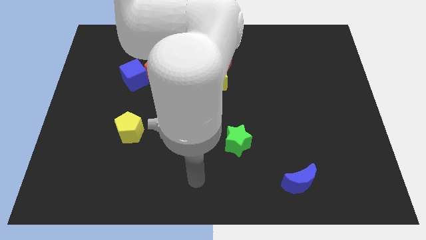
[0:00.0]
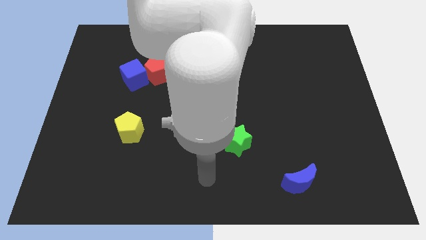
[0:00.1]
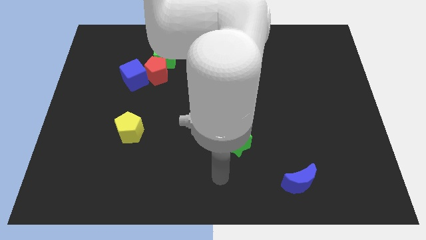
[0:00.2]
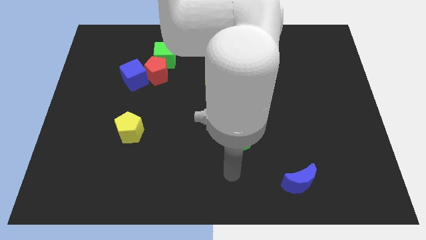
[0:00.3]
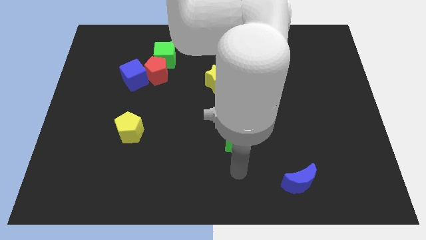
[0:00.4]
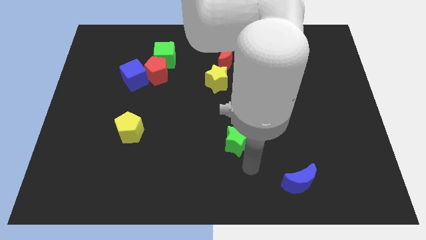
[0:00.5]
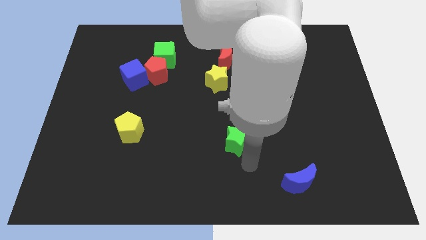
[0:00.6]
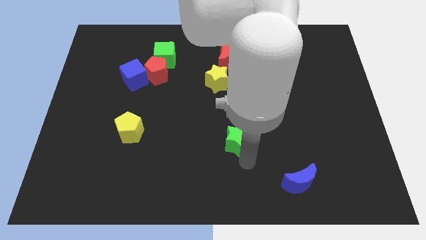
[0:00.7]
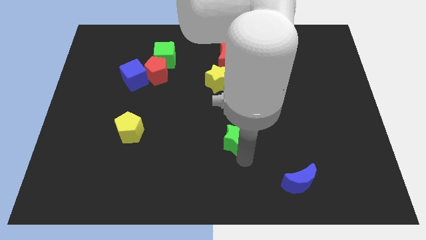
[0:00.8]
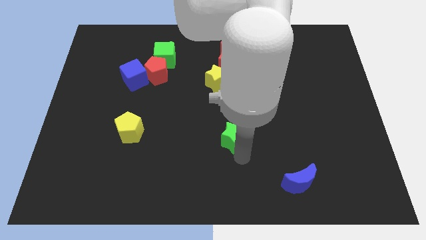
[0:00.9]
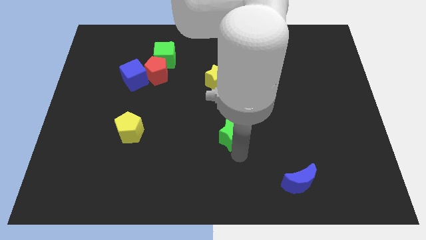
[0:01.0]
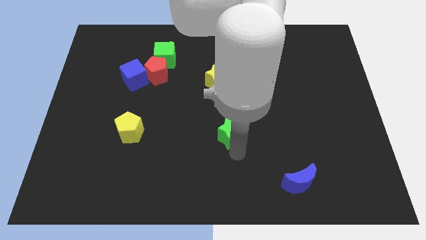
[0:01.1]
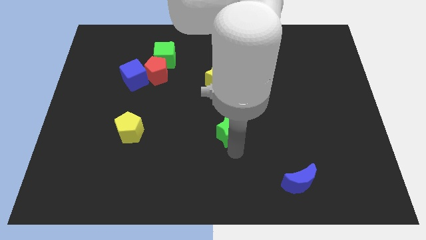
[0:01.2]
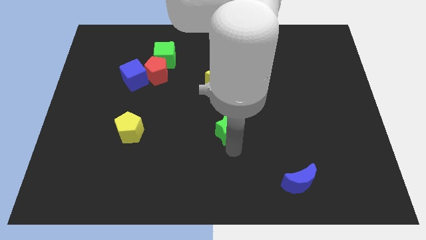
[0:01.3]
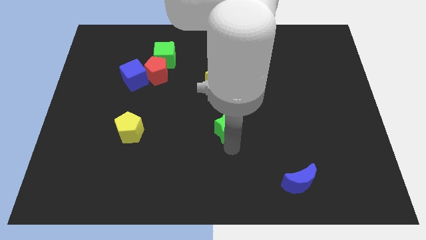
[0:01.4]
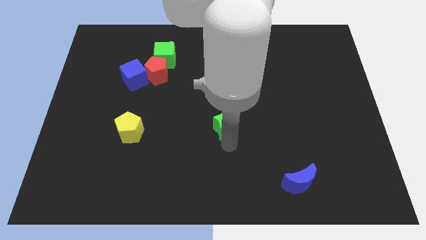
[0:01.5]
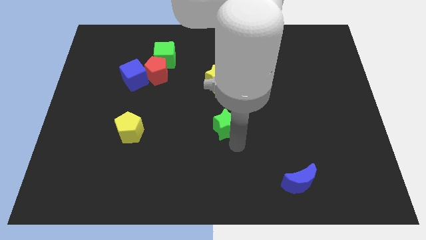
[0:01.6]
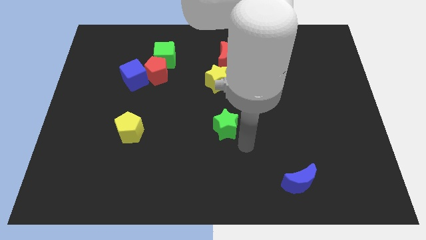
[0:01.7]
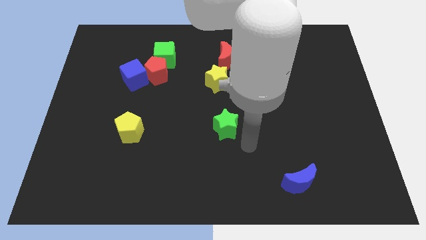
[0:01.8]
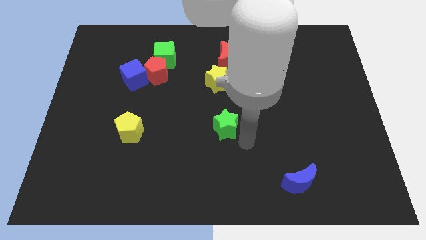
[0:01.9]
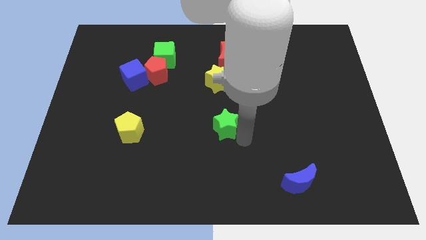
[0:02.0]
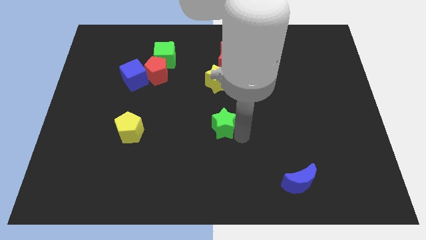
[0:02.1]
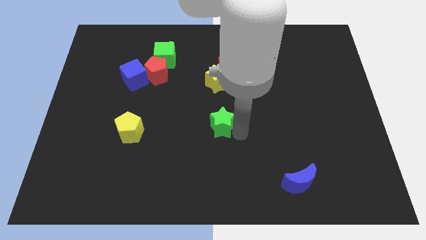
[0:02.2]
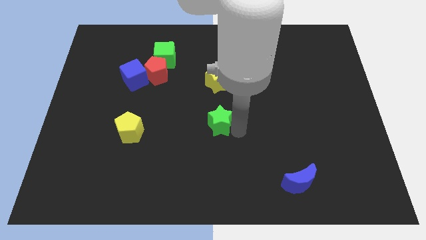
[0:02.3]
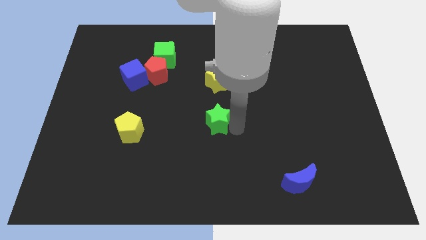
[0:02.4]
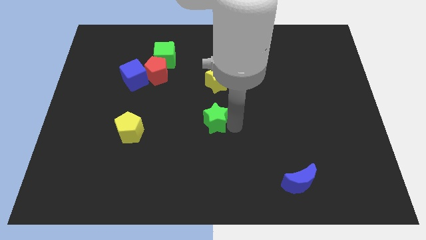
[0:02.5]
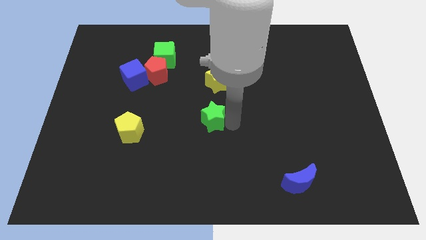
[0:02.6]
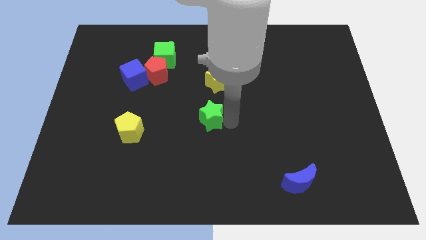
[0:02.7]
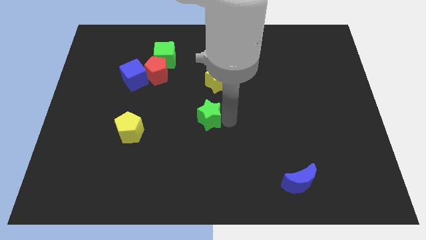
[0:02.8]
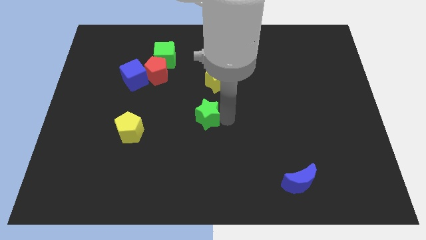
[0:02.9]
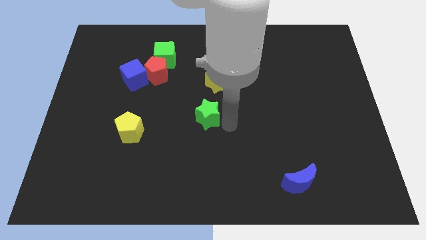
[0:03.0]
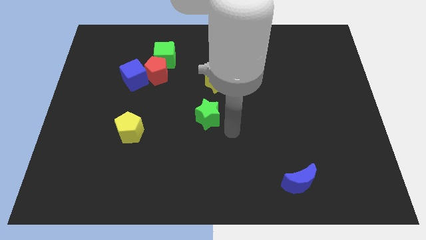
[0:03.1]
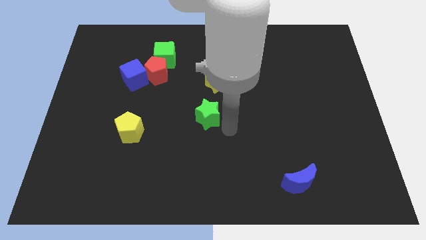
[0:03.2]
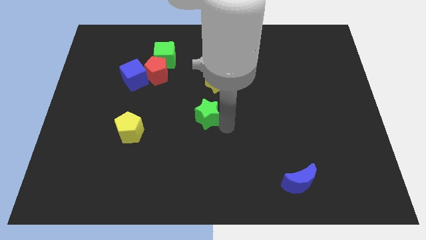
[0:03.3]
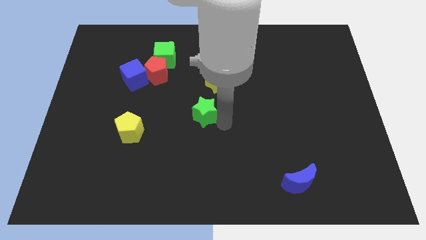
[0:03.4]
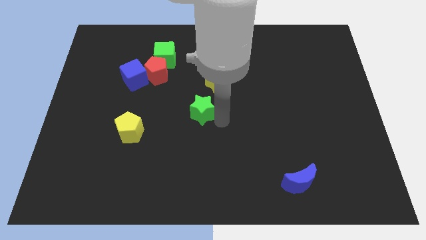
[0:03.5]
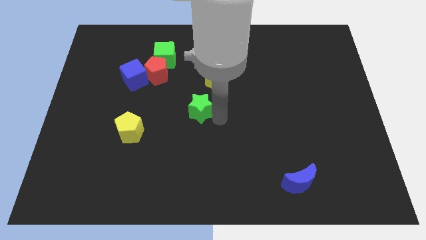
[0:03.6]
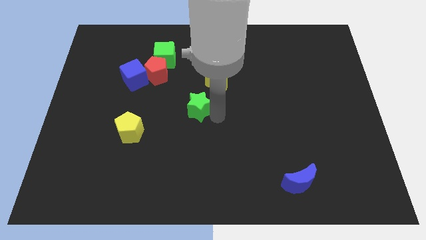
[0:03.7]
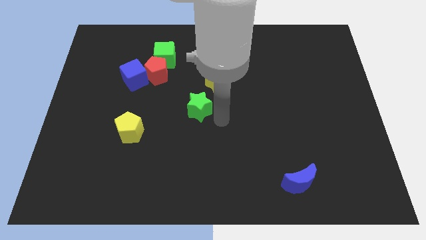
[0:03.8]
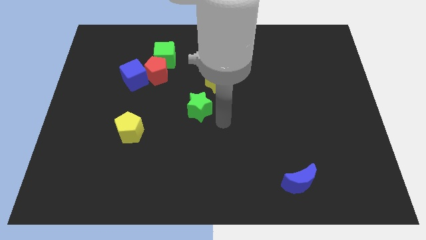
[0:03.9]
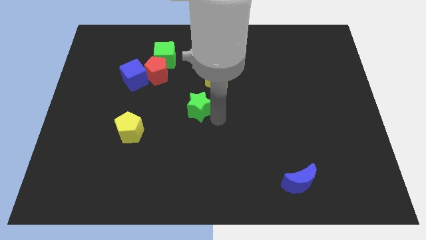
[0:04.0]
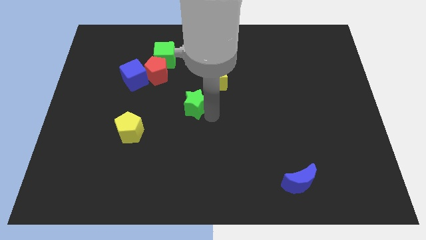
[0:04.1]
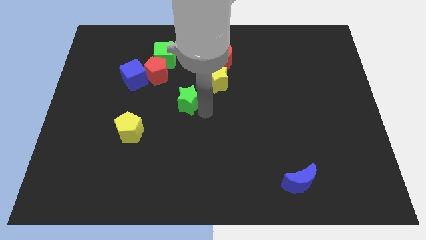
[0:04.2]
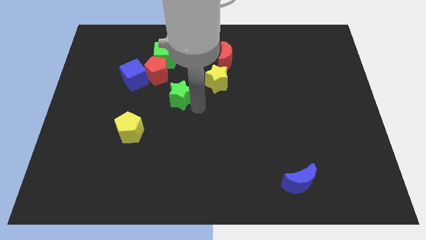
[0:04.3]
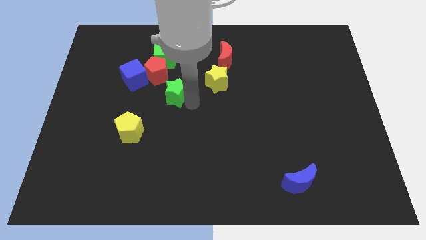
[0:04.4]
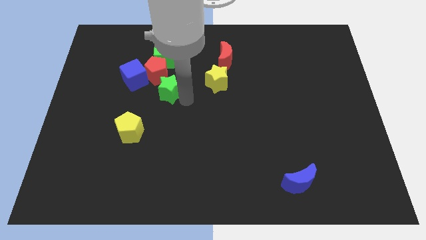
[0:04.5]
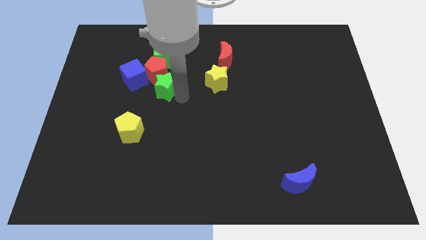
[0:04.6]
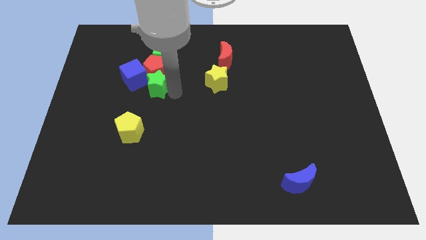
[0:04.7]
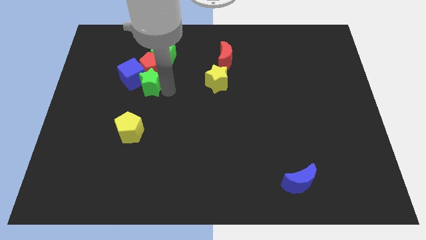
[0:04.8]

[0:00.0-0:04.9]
move the green star close to the blue cube

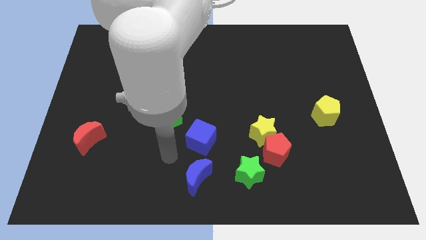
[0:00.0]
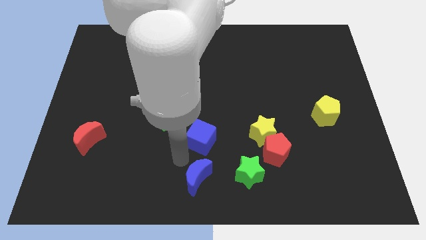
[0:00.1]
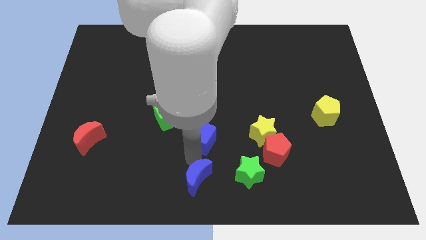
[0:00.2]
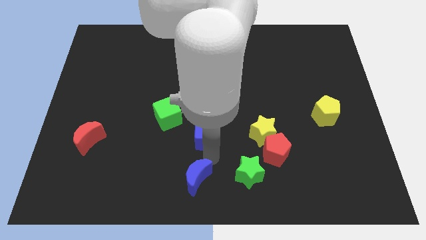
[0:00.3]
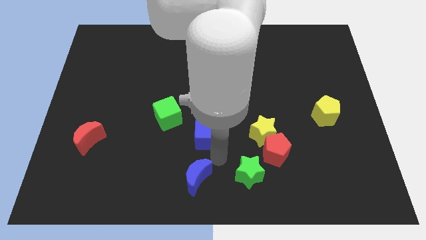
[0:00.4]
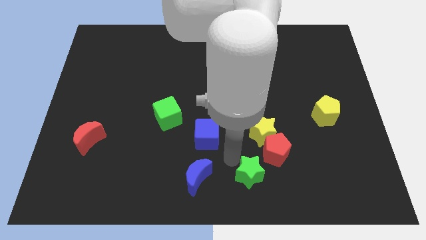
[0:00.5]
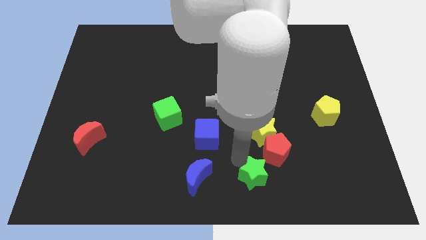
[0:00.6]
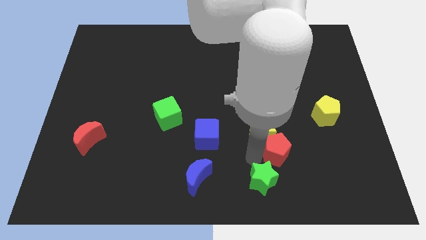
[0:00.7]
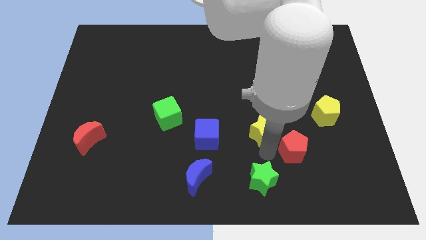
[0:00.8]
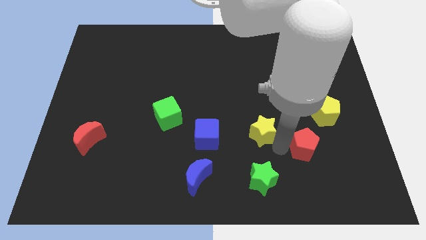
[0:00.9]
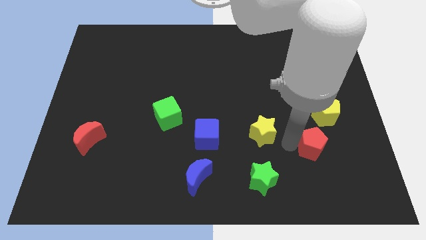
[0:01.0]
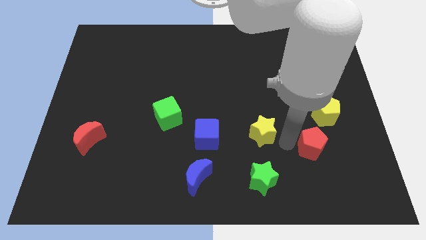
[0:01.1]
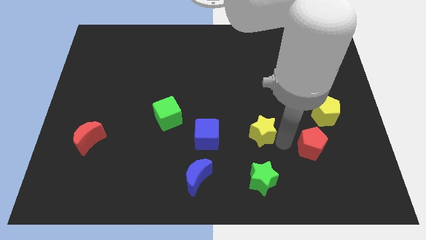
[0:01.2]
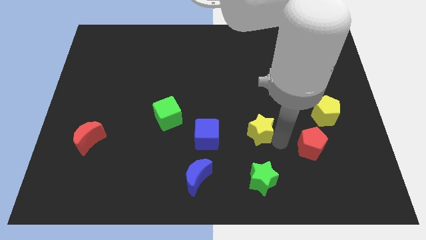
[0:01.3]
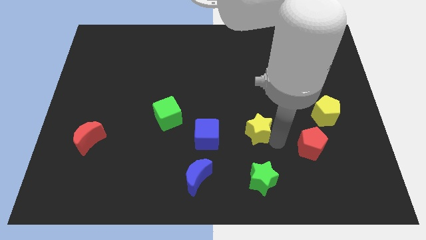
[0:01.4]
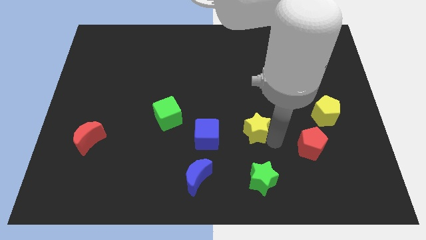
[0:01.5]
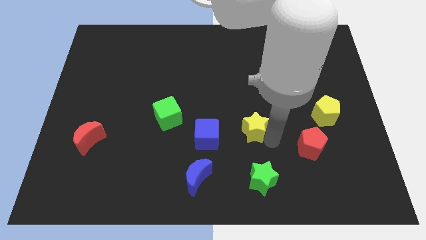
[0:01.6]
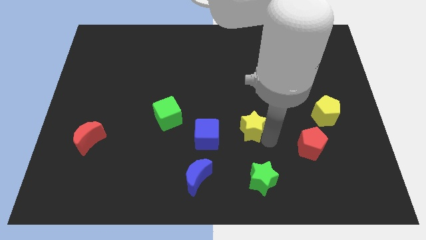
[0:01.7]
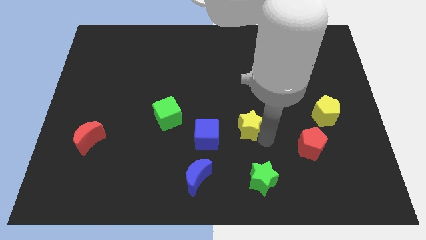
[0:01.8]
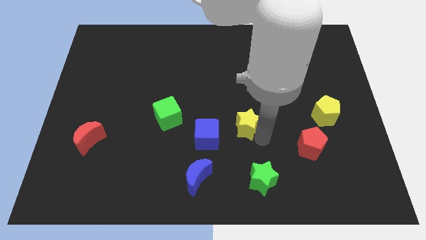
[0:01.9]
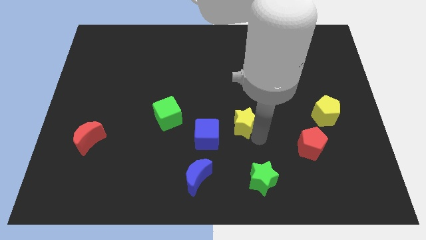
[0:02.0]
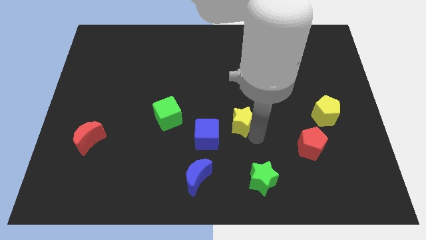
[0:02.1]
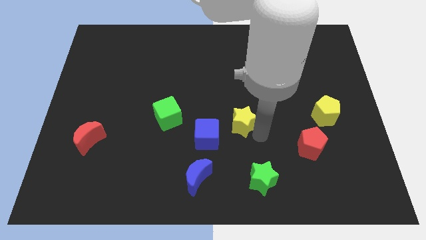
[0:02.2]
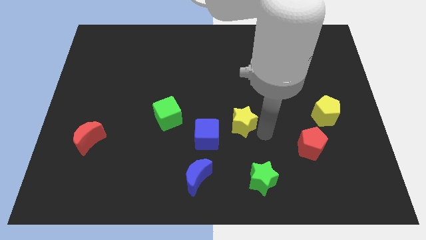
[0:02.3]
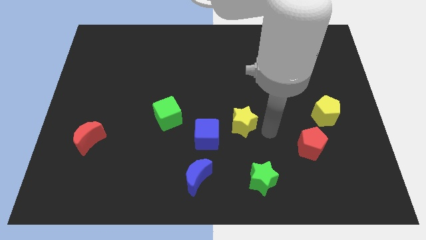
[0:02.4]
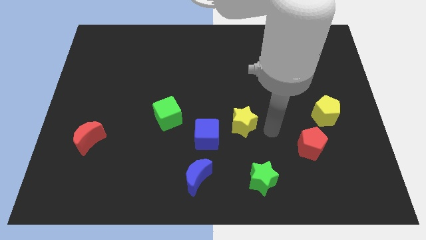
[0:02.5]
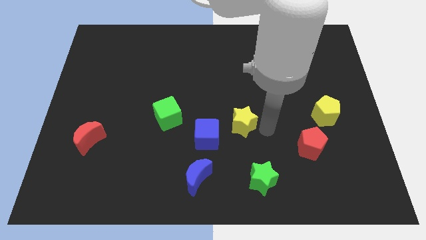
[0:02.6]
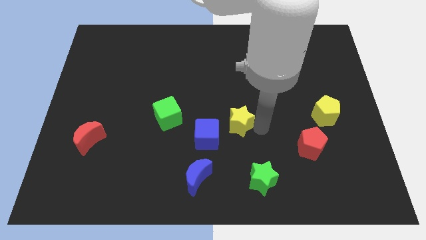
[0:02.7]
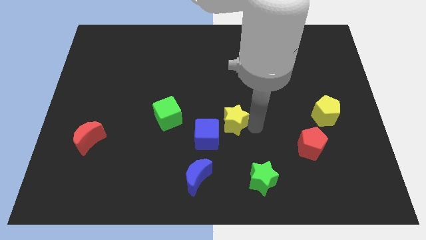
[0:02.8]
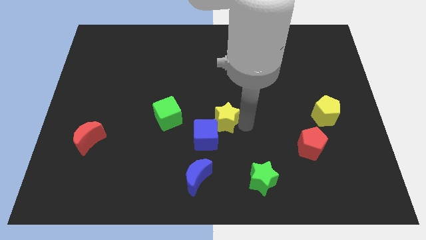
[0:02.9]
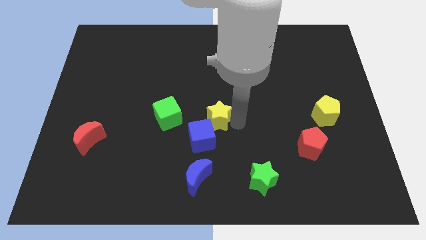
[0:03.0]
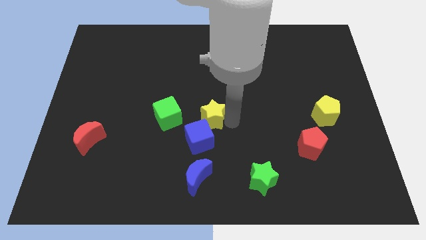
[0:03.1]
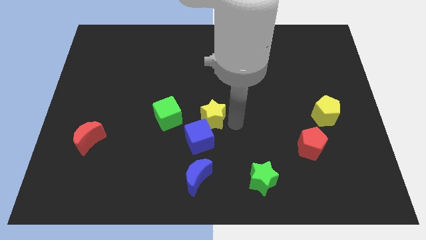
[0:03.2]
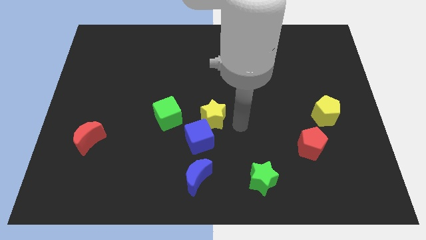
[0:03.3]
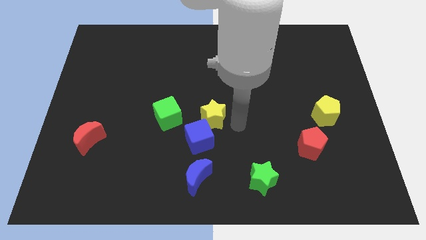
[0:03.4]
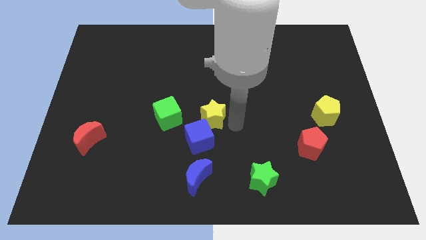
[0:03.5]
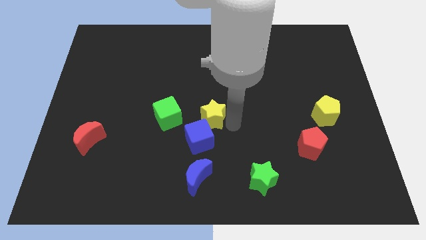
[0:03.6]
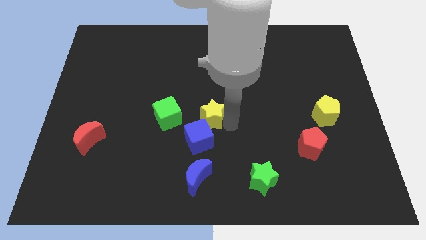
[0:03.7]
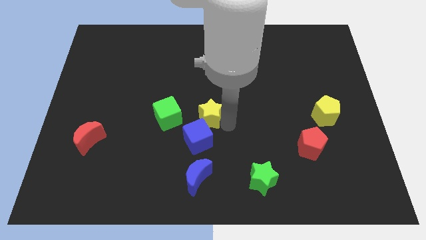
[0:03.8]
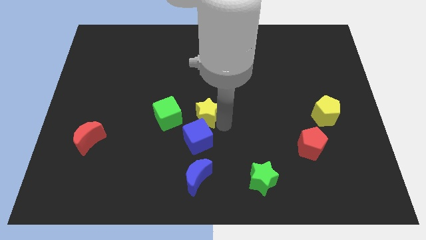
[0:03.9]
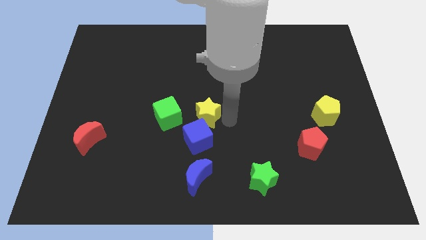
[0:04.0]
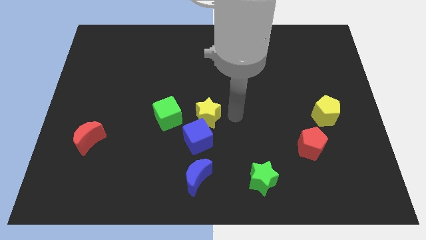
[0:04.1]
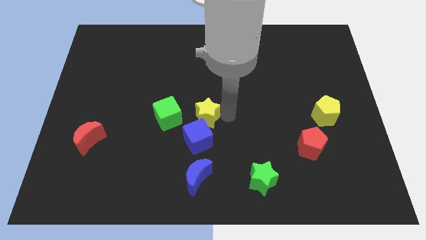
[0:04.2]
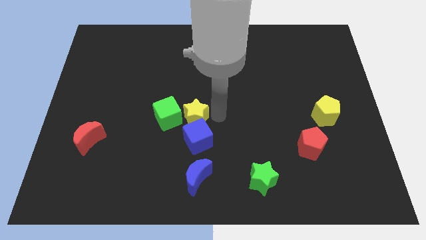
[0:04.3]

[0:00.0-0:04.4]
push the yellow star towards the green cube
